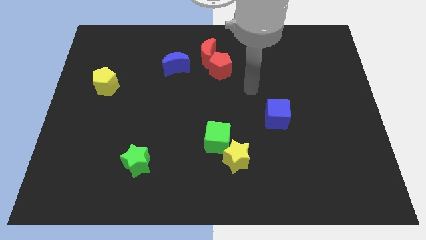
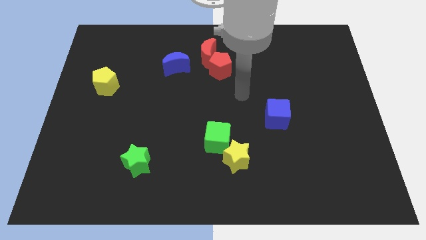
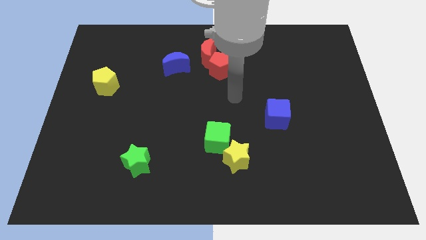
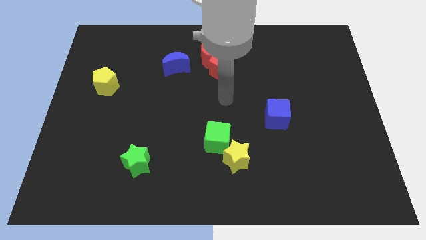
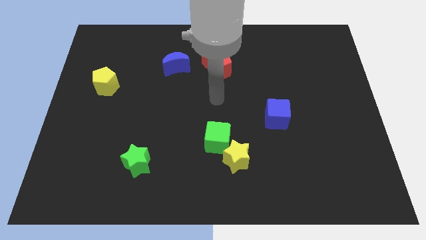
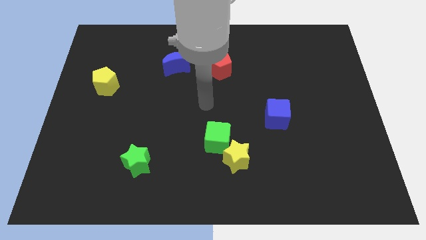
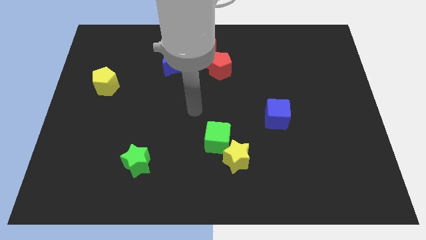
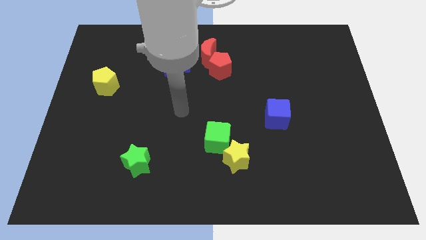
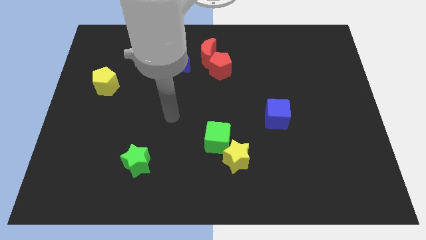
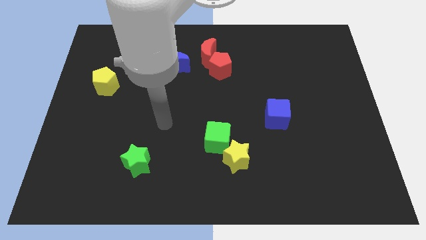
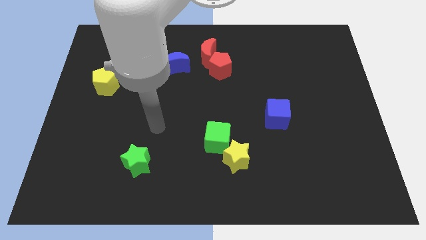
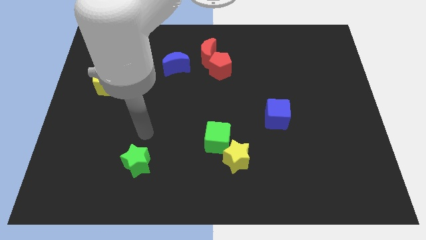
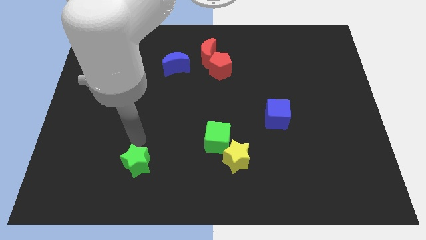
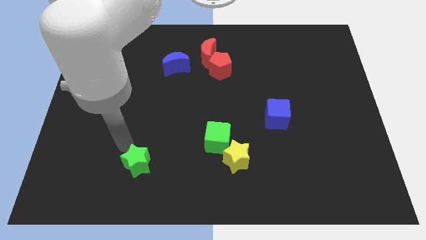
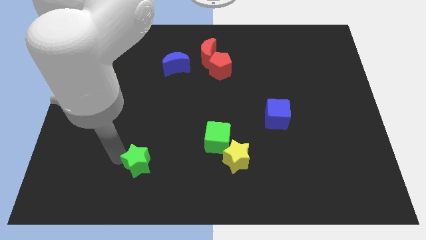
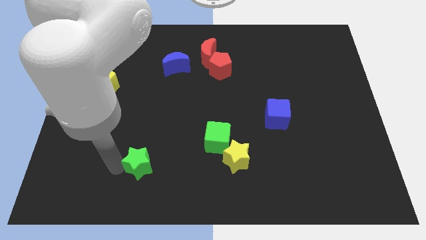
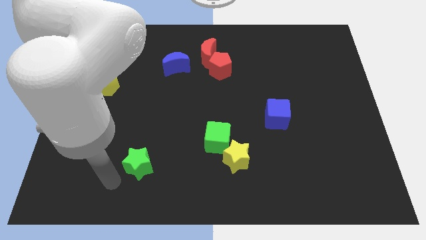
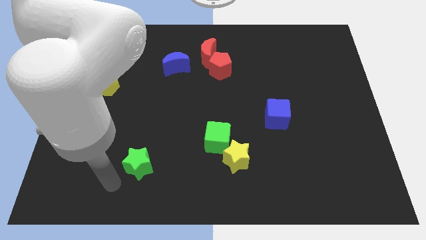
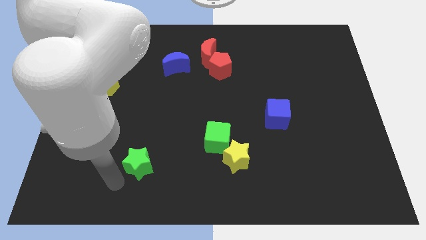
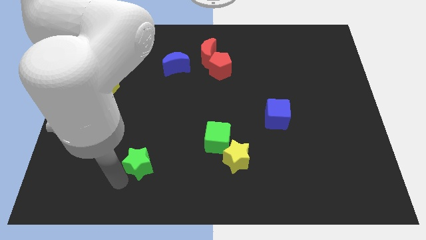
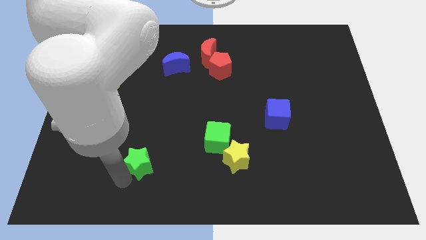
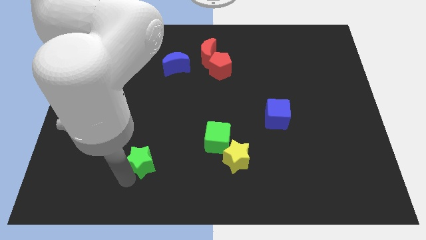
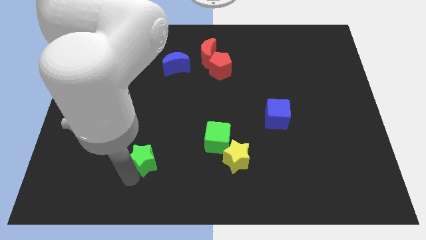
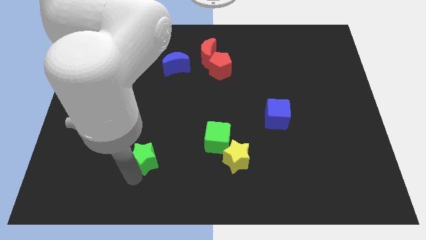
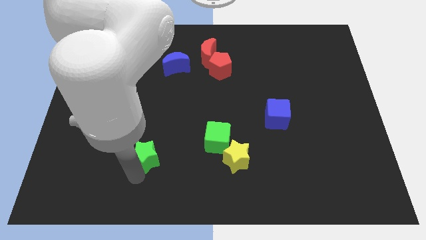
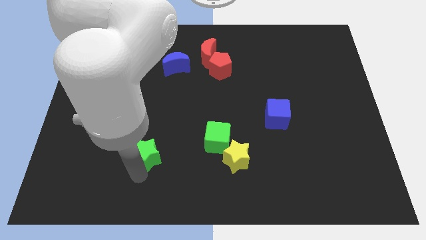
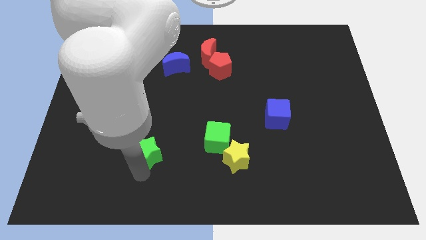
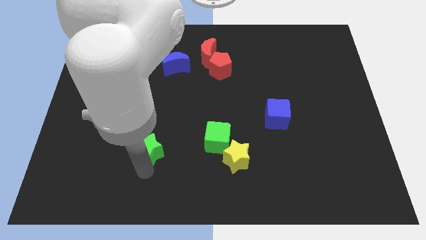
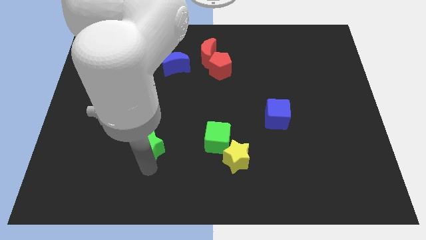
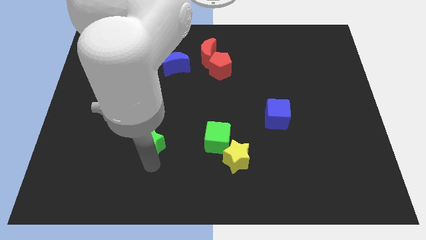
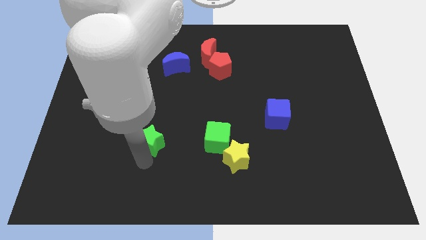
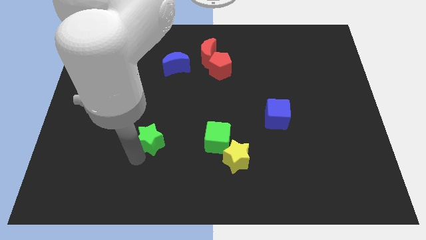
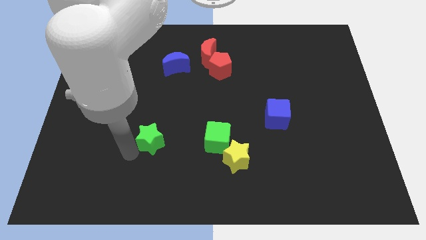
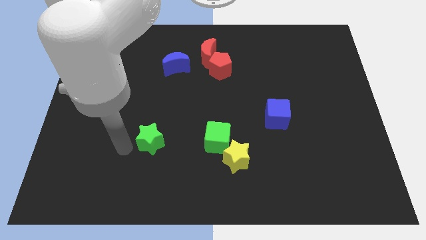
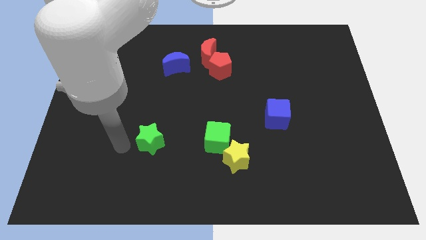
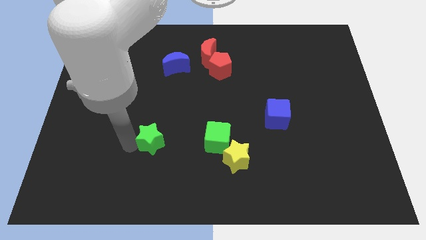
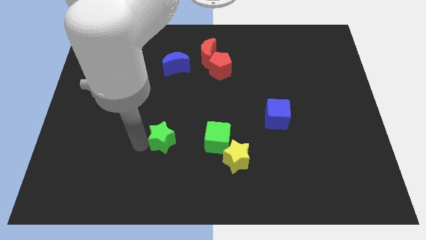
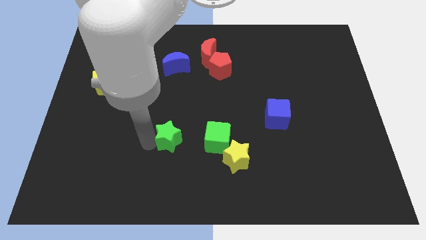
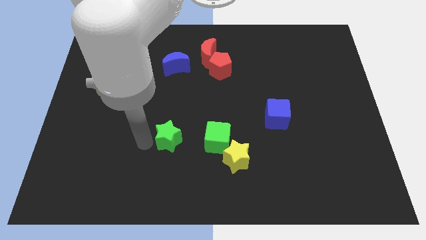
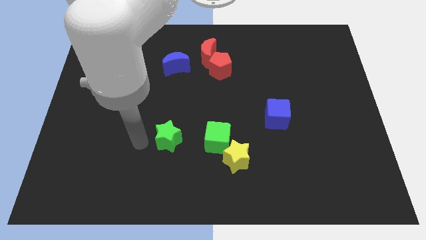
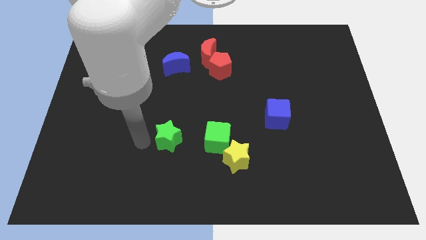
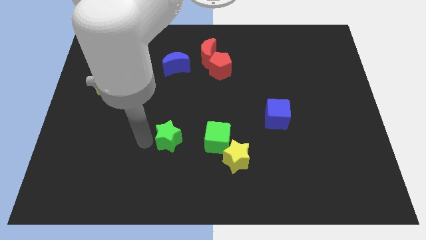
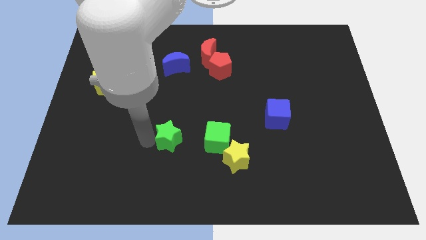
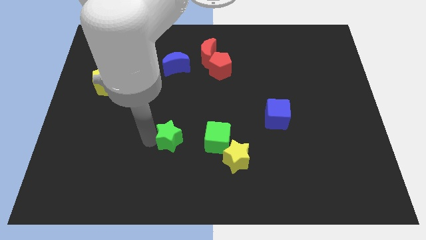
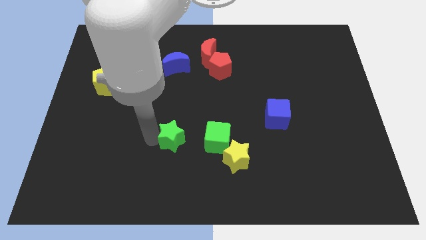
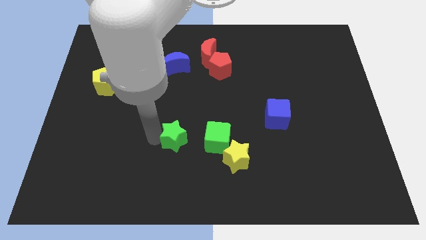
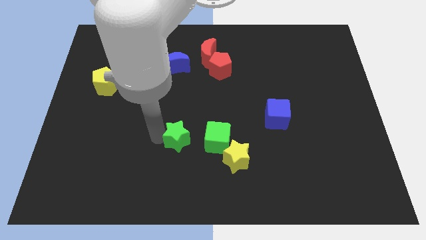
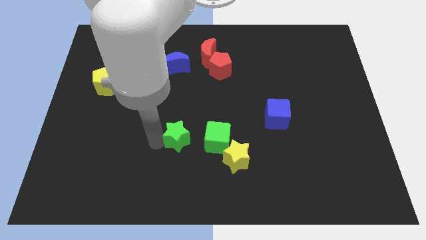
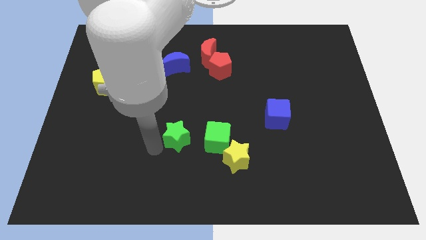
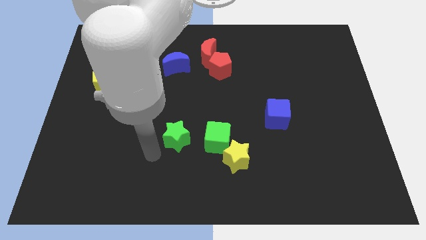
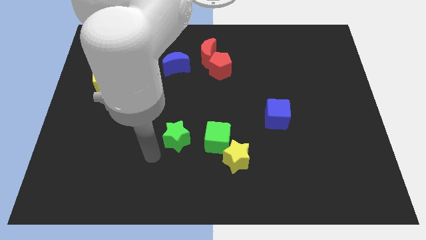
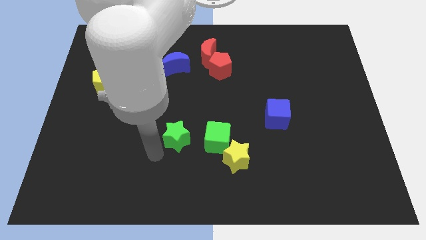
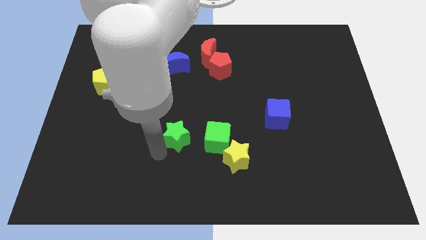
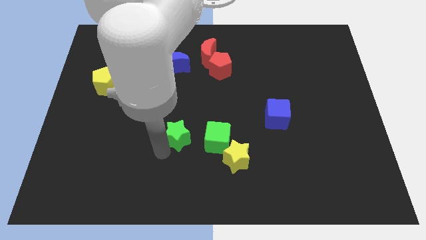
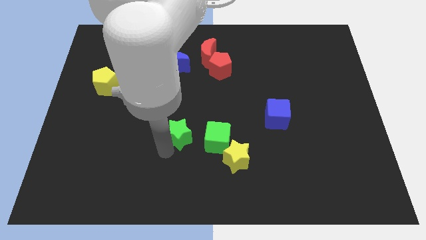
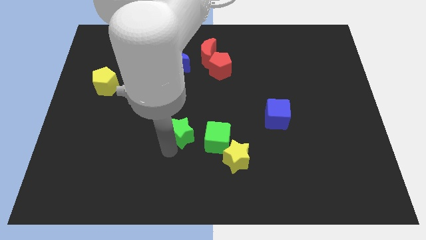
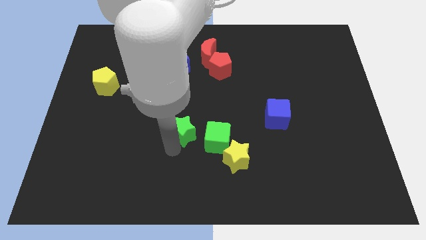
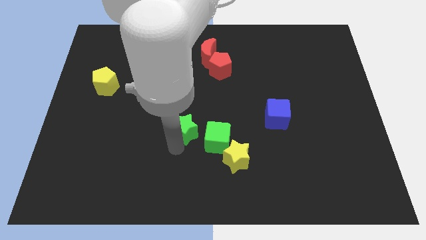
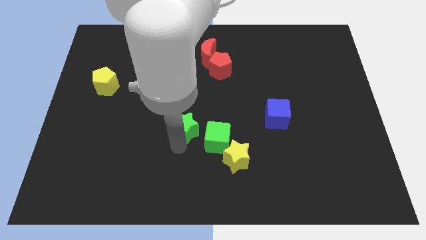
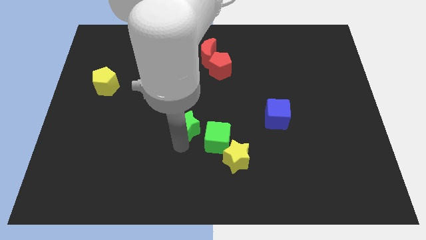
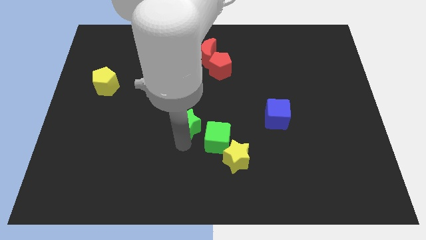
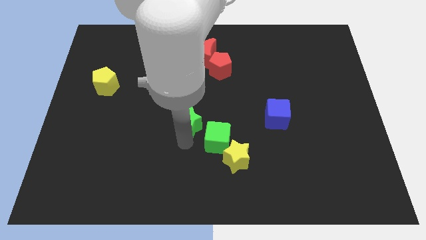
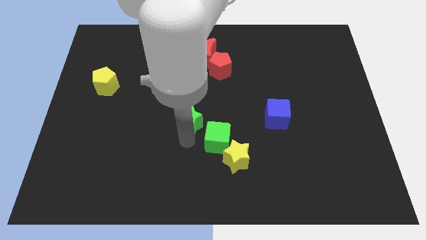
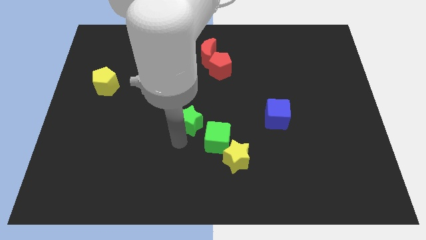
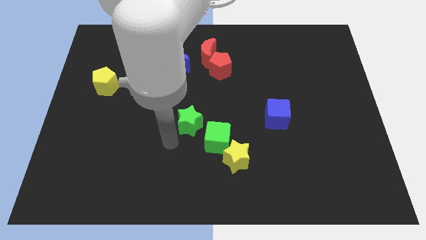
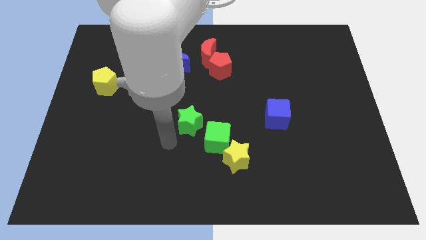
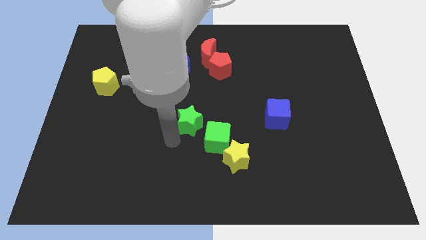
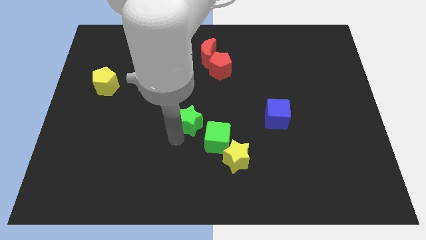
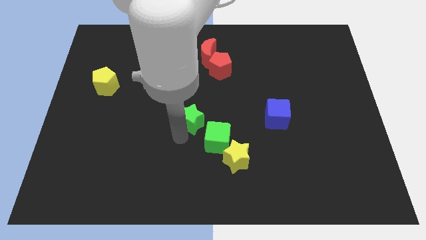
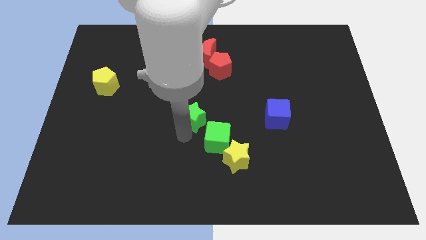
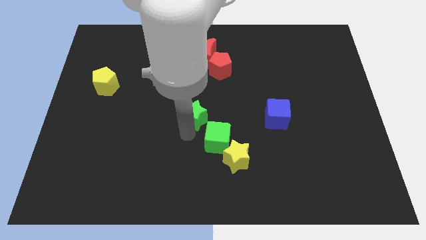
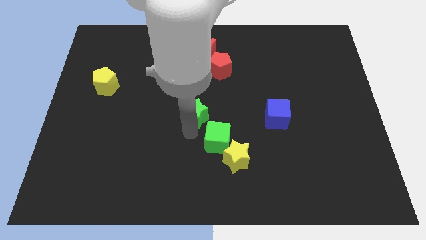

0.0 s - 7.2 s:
push the green star to the top side of the green cube
